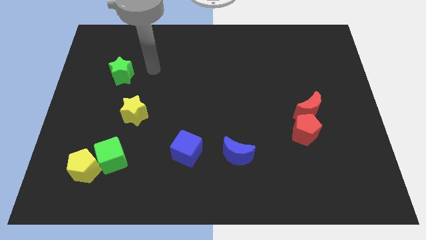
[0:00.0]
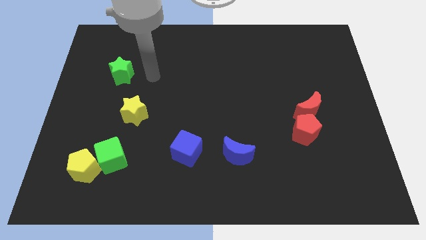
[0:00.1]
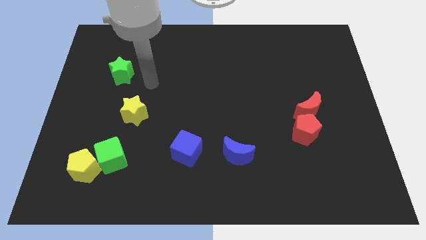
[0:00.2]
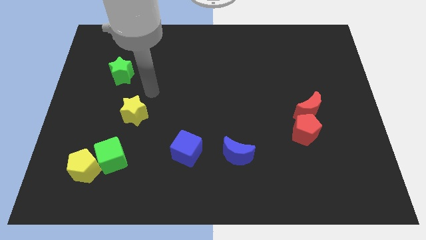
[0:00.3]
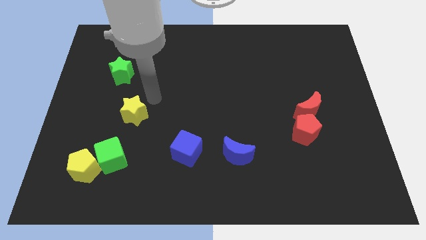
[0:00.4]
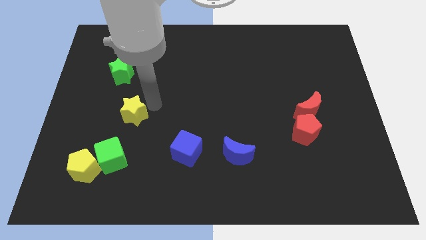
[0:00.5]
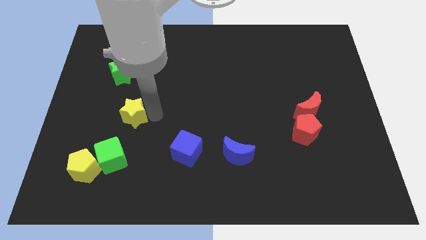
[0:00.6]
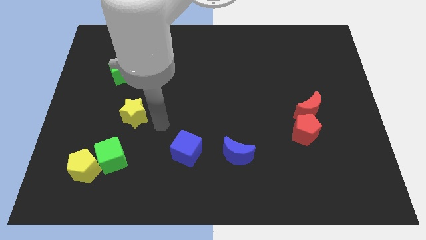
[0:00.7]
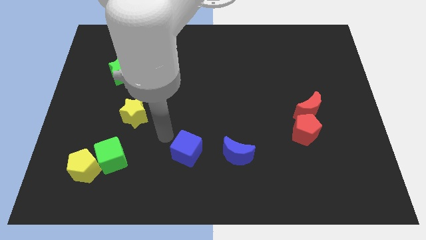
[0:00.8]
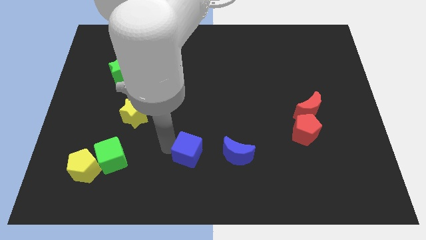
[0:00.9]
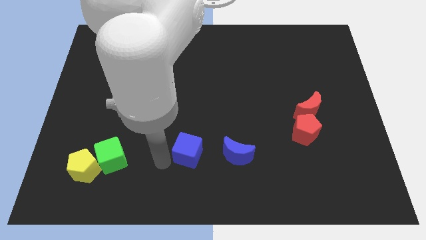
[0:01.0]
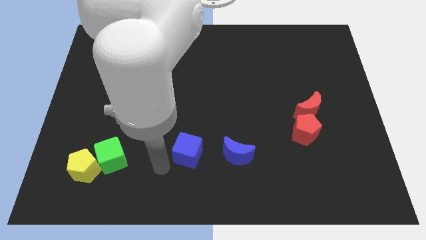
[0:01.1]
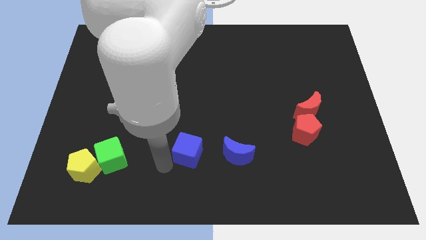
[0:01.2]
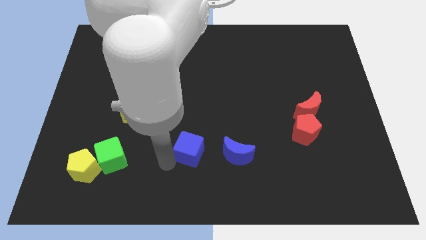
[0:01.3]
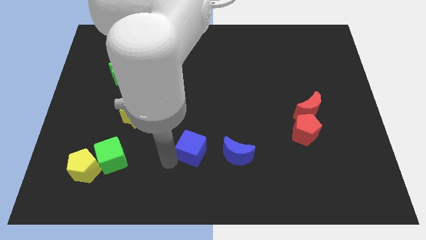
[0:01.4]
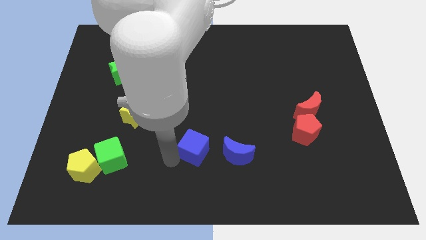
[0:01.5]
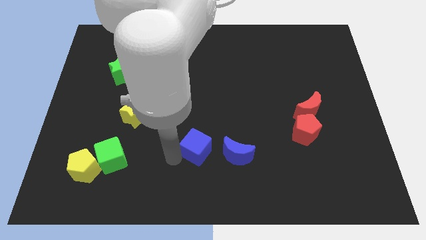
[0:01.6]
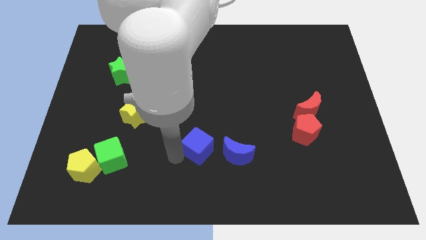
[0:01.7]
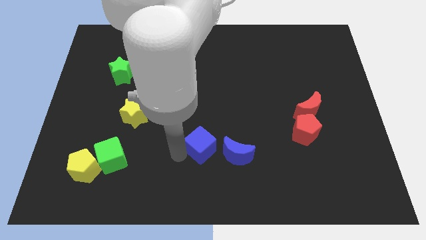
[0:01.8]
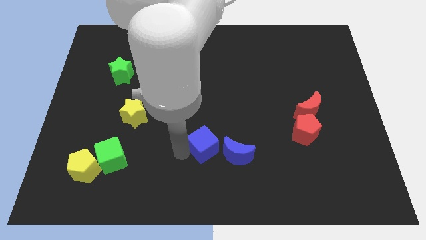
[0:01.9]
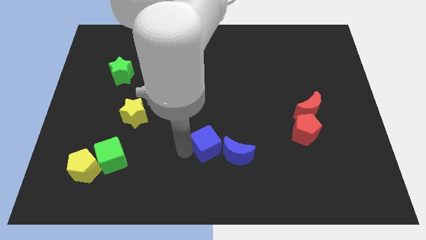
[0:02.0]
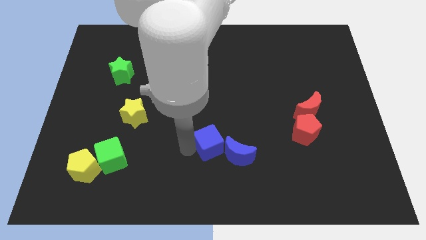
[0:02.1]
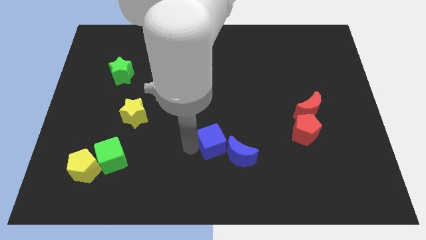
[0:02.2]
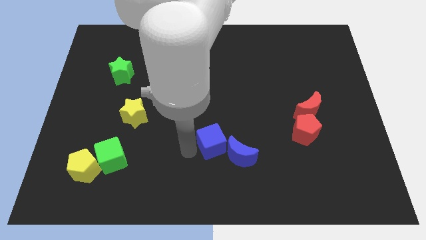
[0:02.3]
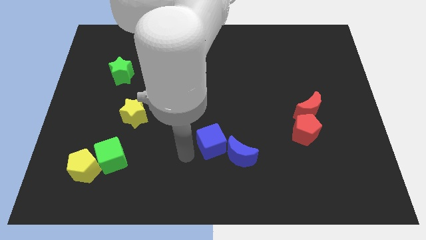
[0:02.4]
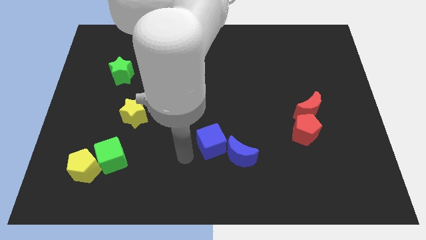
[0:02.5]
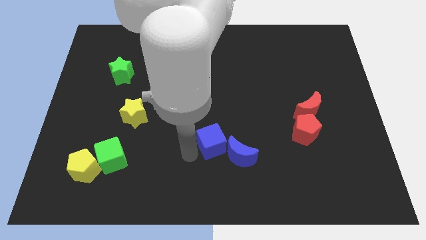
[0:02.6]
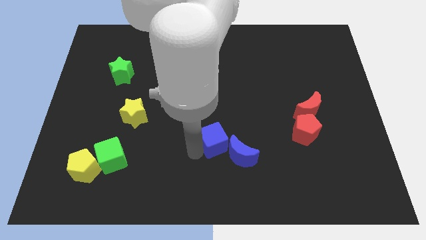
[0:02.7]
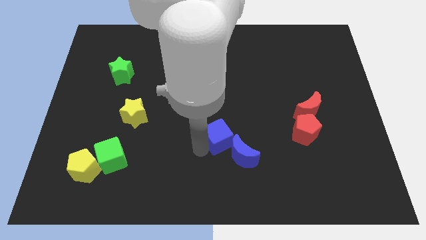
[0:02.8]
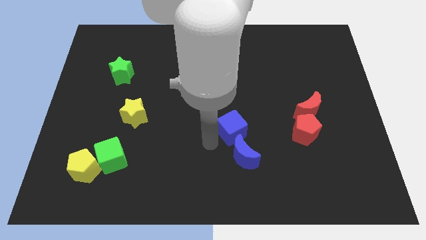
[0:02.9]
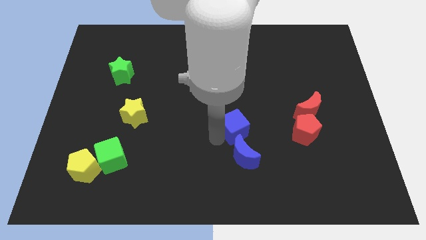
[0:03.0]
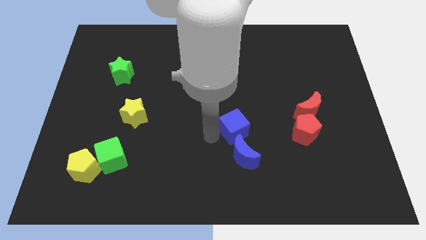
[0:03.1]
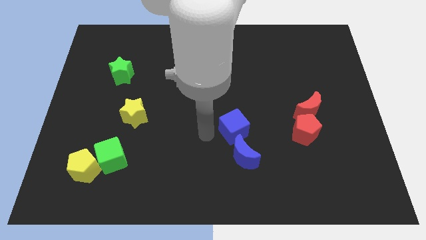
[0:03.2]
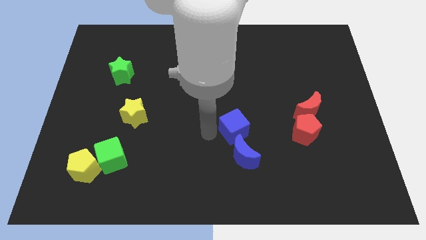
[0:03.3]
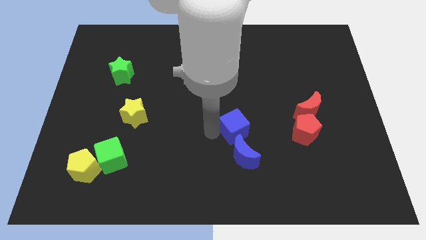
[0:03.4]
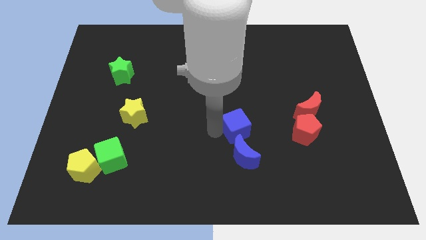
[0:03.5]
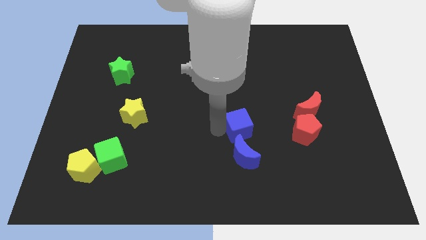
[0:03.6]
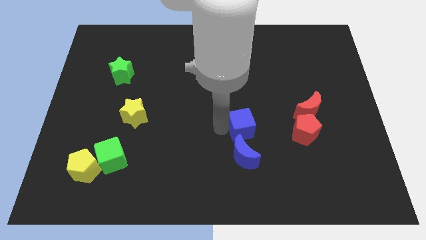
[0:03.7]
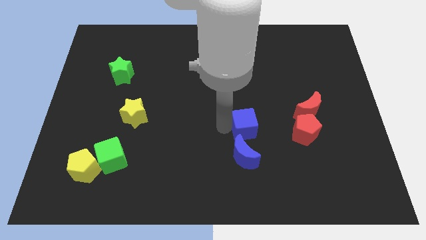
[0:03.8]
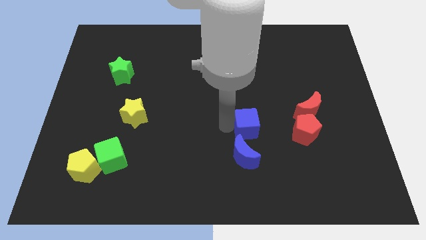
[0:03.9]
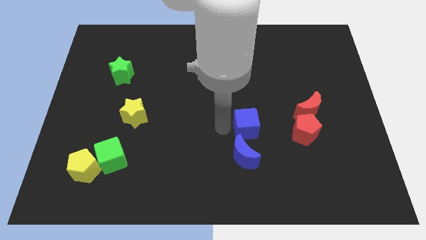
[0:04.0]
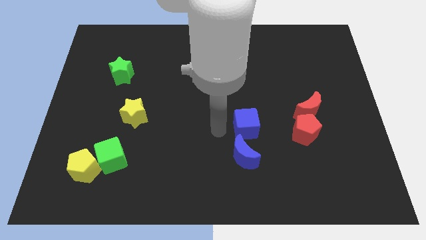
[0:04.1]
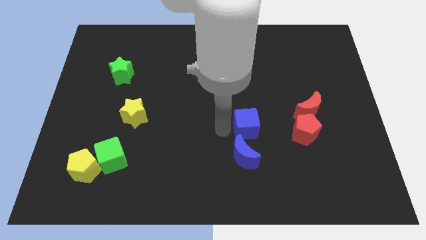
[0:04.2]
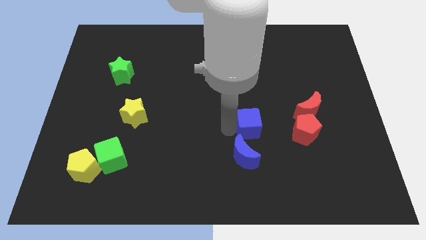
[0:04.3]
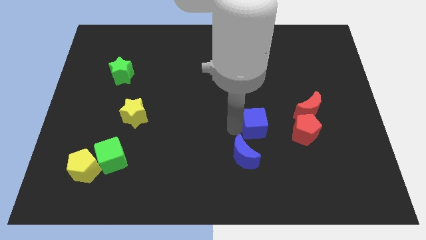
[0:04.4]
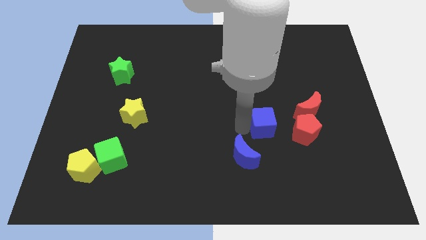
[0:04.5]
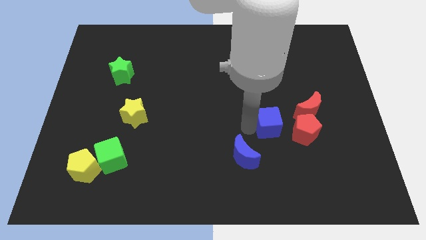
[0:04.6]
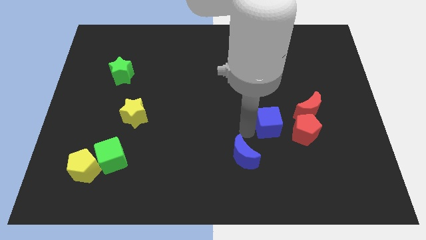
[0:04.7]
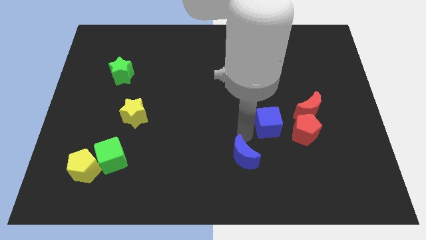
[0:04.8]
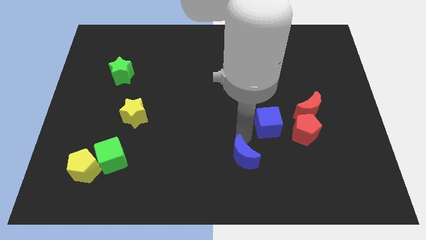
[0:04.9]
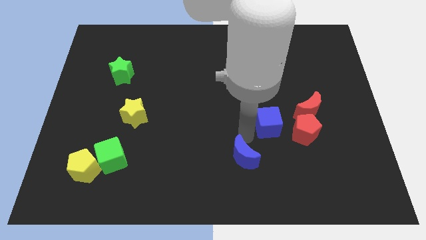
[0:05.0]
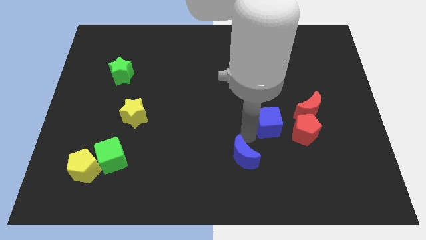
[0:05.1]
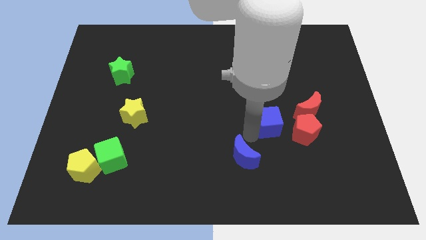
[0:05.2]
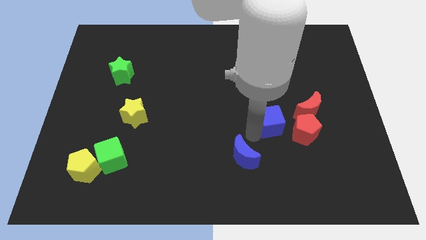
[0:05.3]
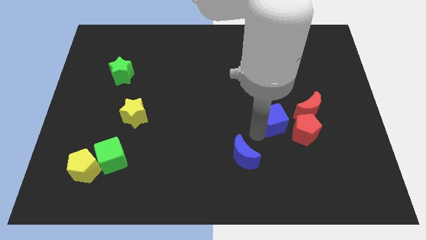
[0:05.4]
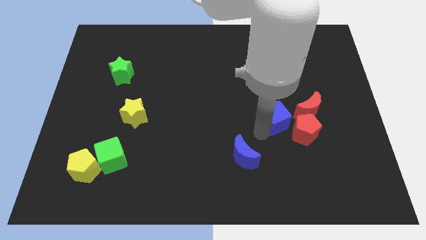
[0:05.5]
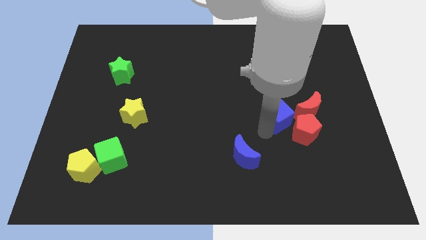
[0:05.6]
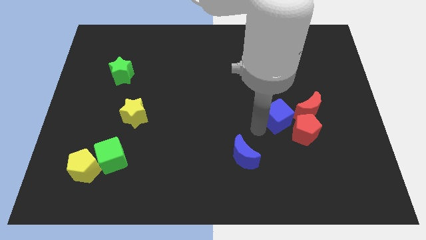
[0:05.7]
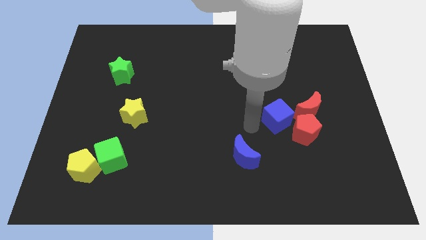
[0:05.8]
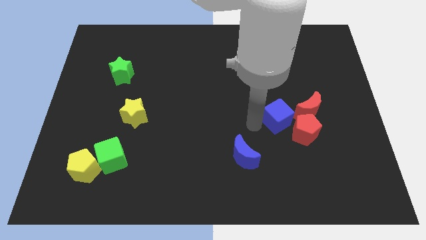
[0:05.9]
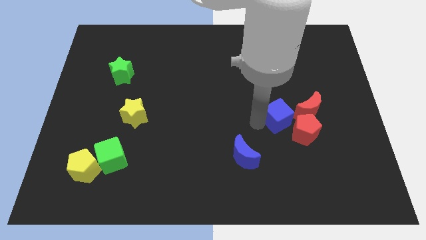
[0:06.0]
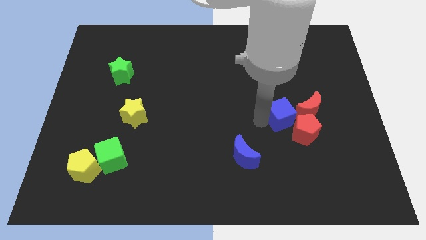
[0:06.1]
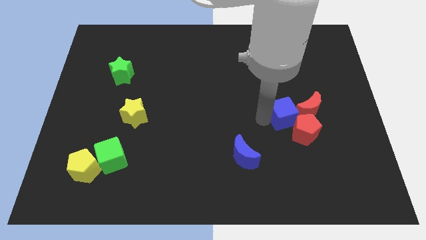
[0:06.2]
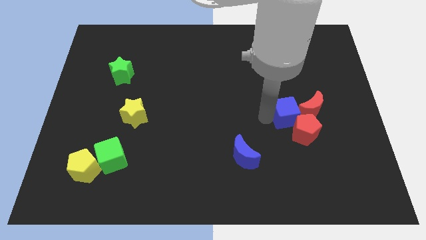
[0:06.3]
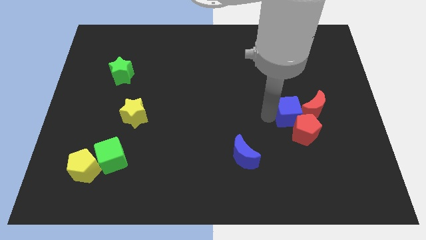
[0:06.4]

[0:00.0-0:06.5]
put the blue cube towards the red moon

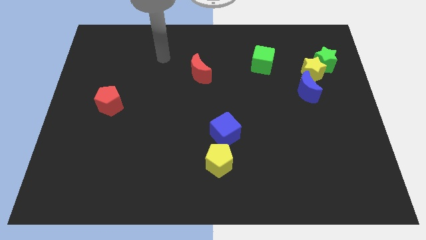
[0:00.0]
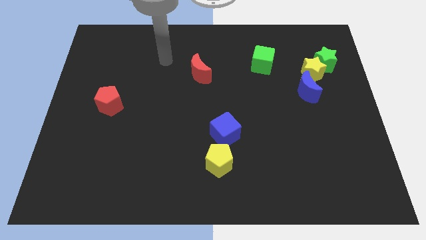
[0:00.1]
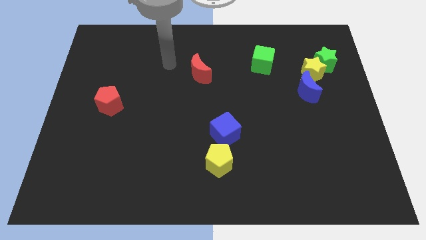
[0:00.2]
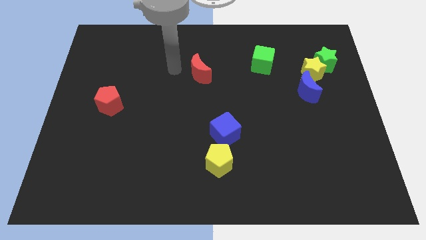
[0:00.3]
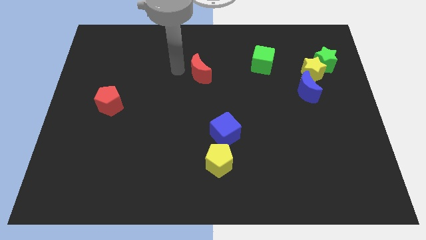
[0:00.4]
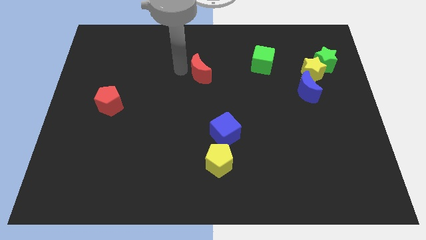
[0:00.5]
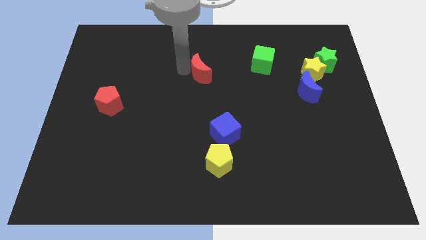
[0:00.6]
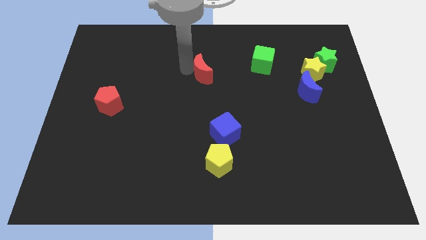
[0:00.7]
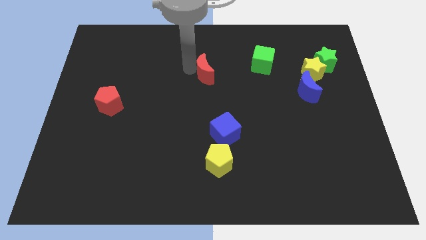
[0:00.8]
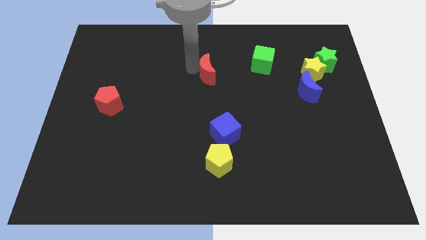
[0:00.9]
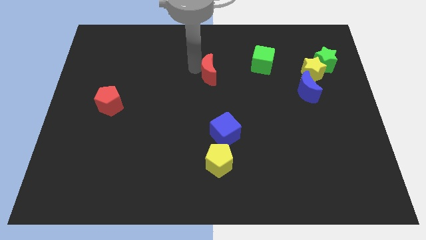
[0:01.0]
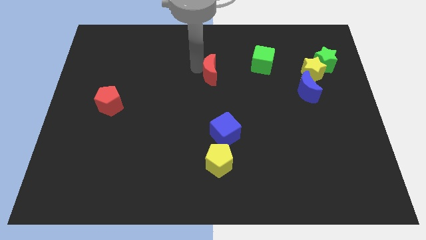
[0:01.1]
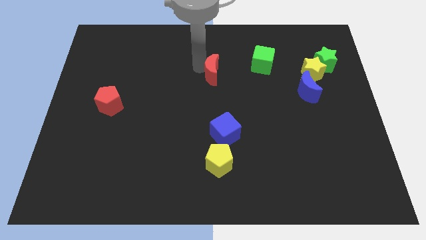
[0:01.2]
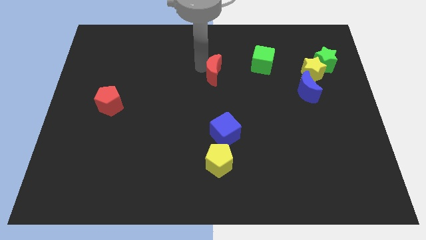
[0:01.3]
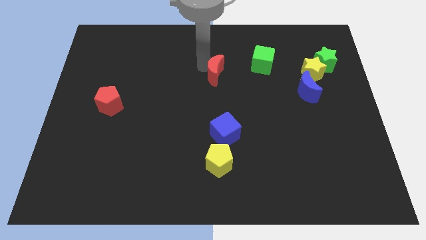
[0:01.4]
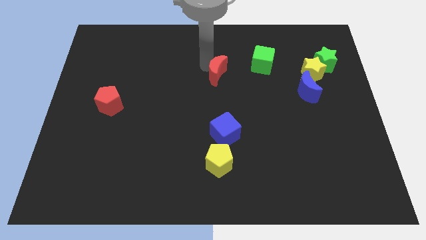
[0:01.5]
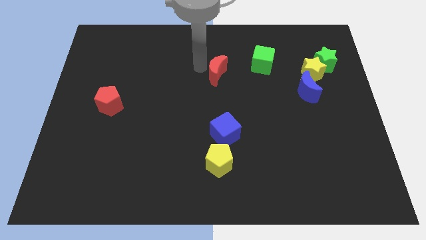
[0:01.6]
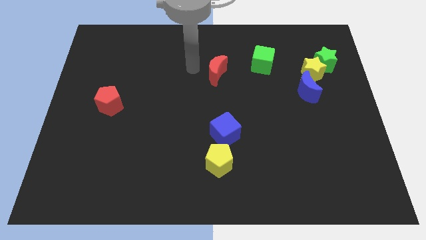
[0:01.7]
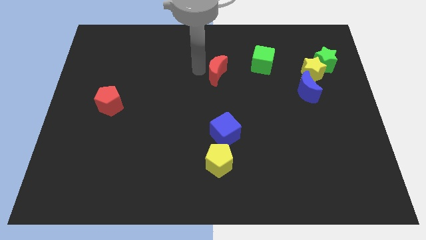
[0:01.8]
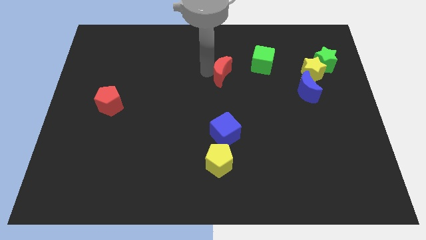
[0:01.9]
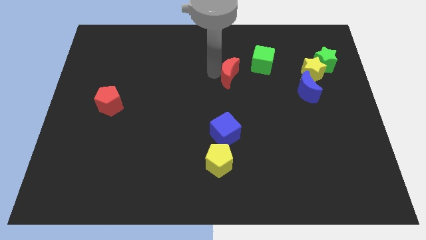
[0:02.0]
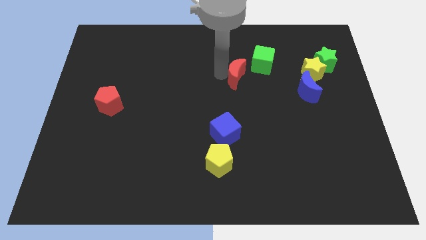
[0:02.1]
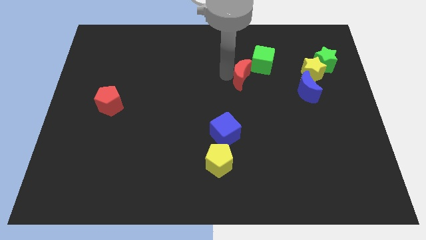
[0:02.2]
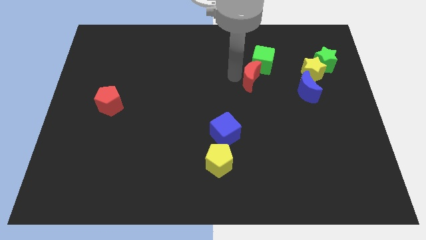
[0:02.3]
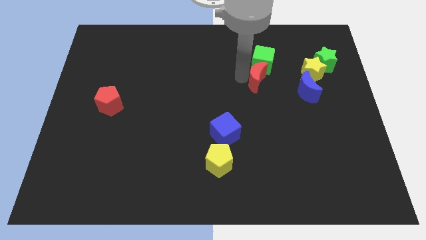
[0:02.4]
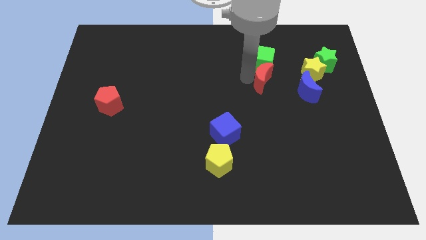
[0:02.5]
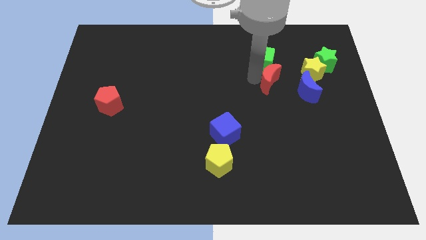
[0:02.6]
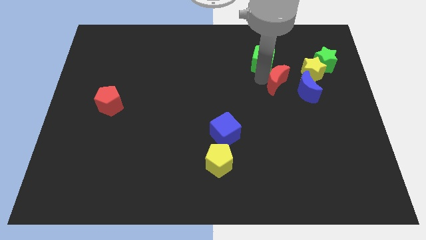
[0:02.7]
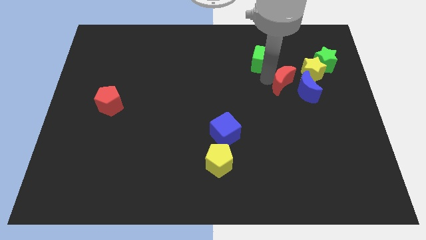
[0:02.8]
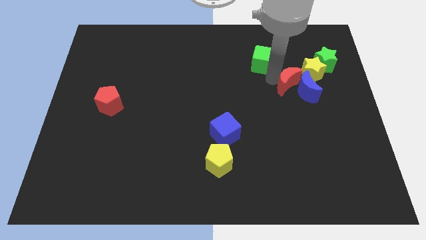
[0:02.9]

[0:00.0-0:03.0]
push the red moon towards the blue moon
